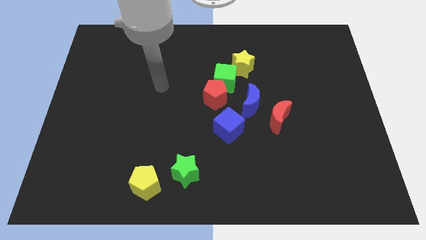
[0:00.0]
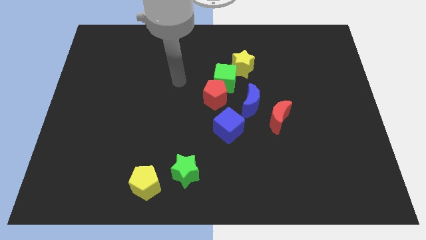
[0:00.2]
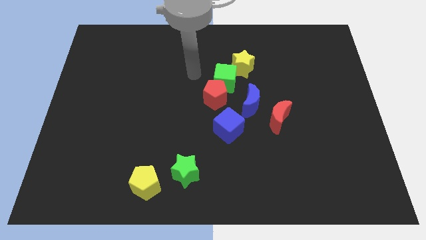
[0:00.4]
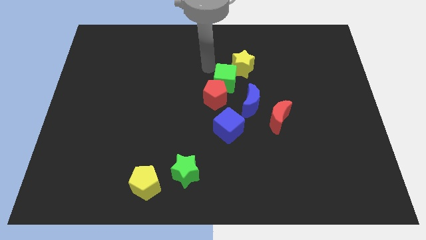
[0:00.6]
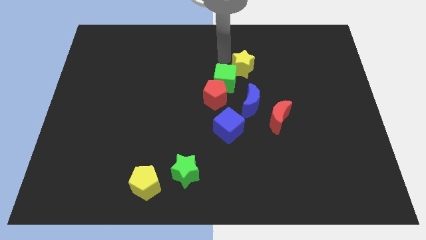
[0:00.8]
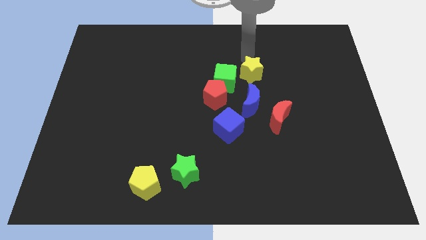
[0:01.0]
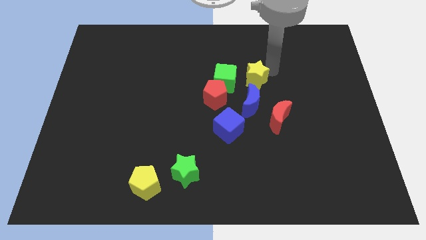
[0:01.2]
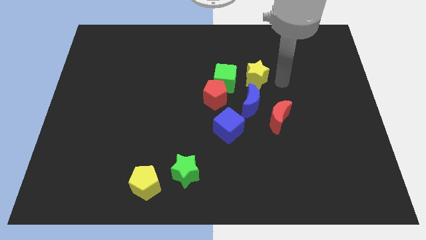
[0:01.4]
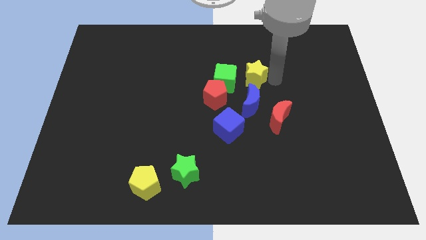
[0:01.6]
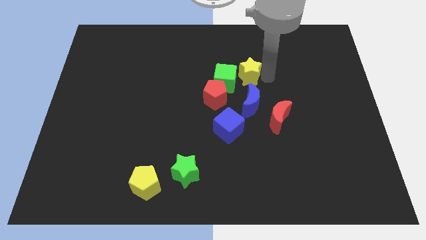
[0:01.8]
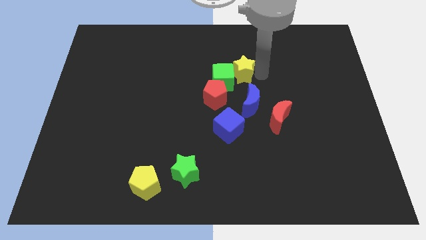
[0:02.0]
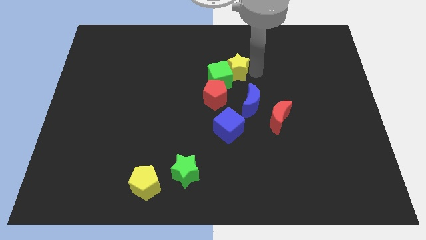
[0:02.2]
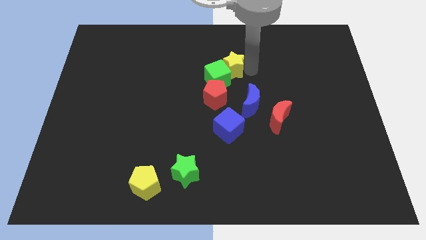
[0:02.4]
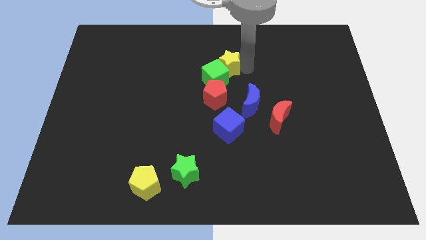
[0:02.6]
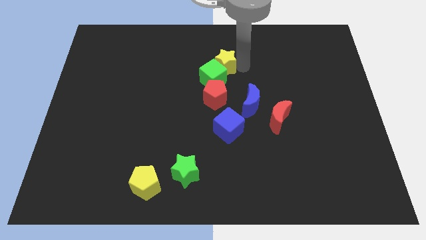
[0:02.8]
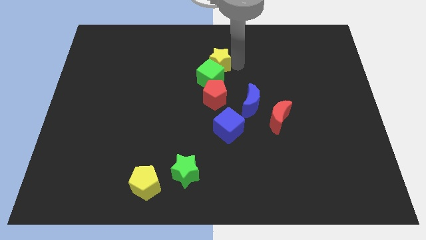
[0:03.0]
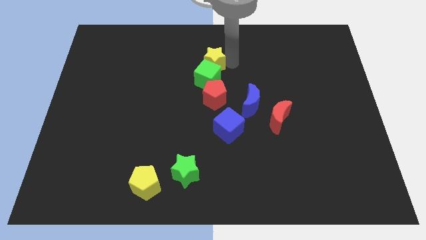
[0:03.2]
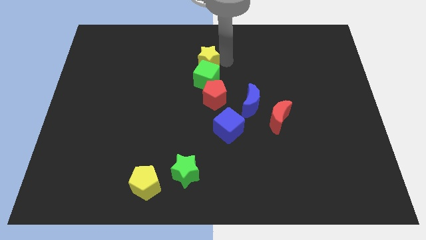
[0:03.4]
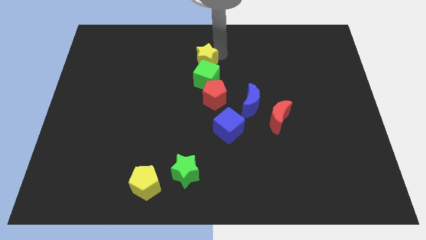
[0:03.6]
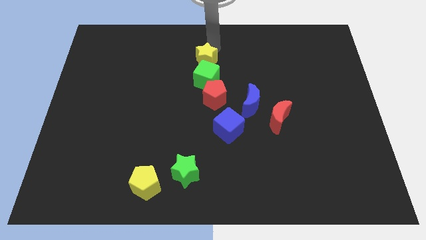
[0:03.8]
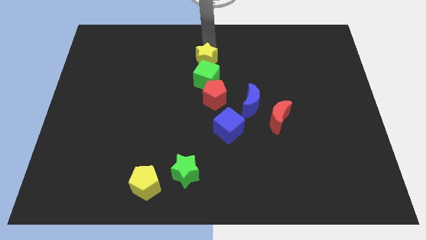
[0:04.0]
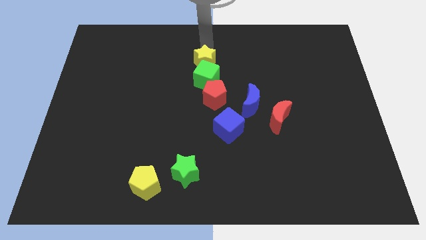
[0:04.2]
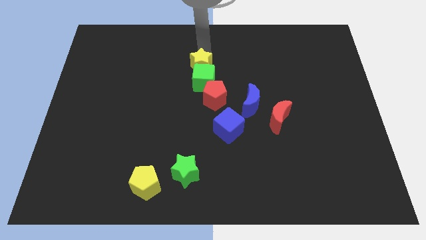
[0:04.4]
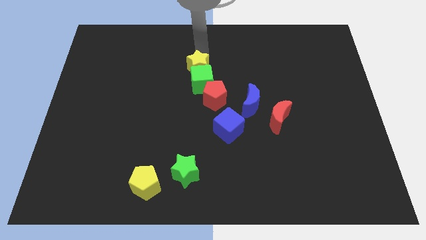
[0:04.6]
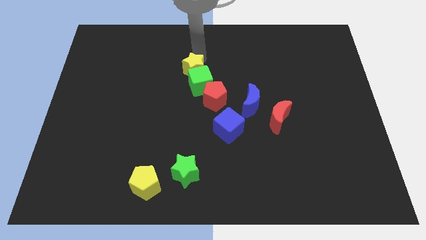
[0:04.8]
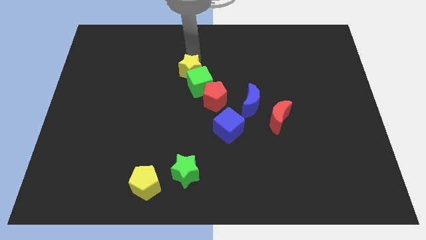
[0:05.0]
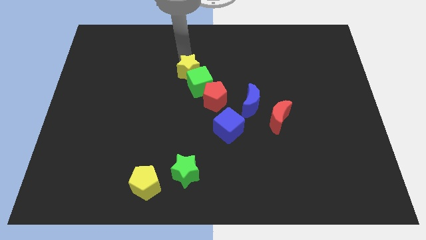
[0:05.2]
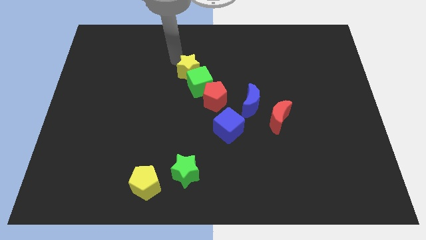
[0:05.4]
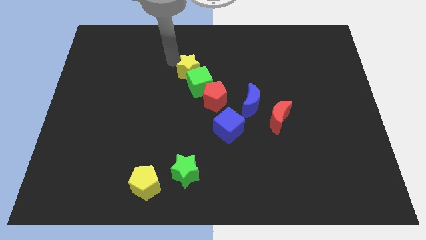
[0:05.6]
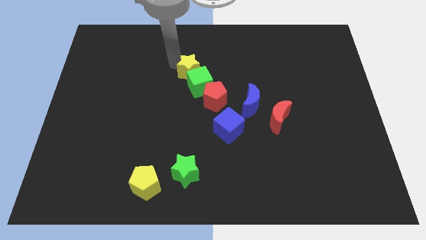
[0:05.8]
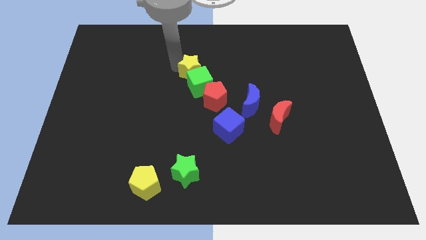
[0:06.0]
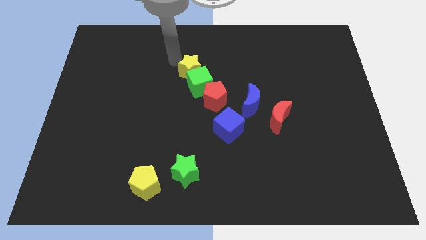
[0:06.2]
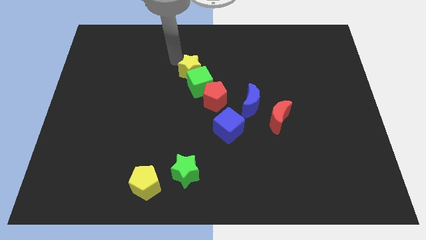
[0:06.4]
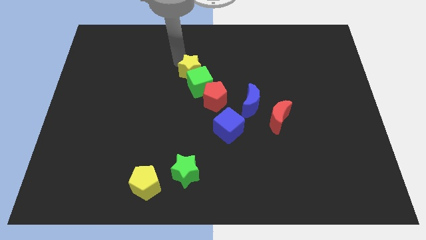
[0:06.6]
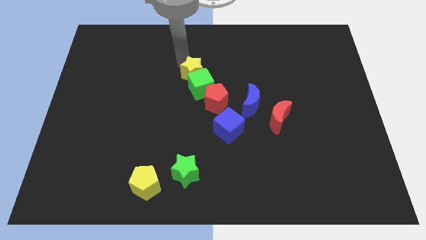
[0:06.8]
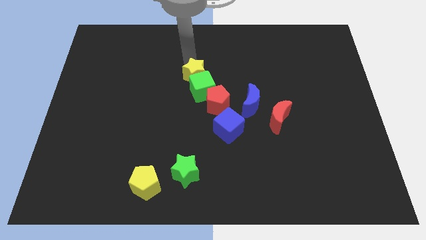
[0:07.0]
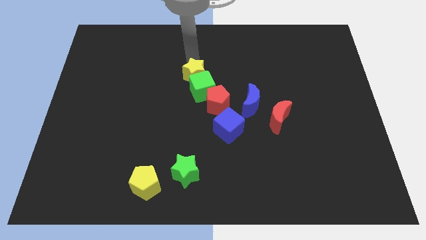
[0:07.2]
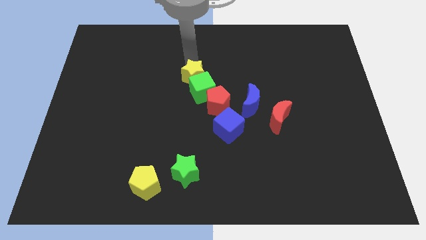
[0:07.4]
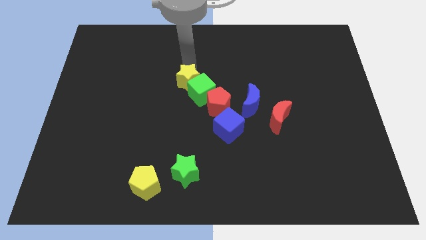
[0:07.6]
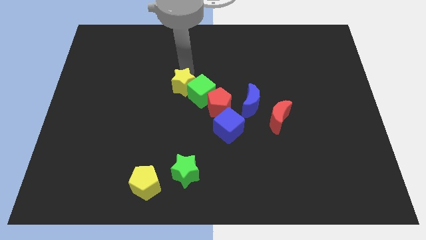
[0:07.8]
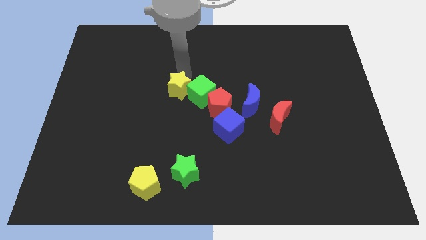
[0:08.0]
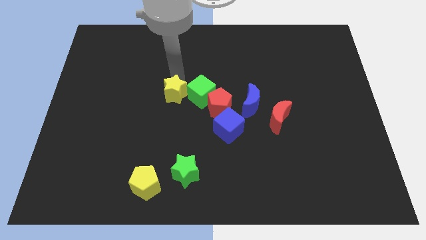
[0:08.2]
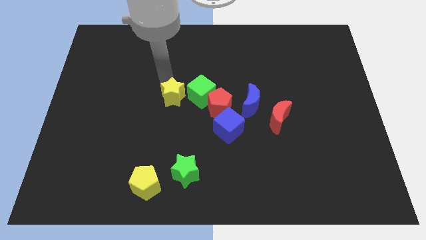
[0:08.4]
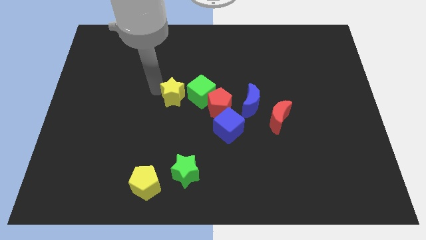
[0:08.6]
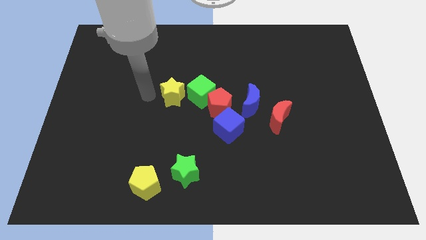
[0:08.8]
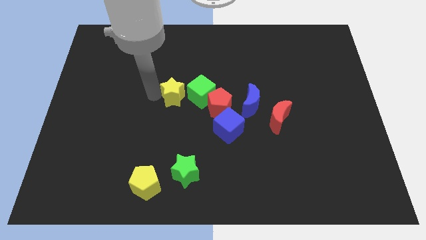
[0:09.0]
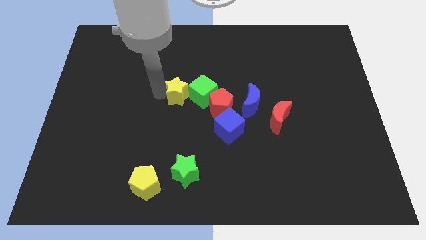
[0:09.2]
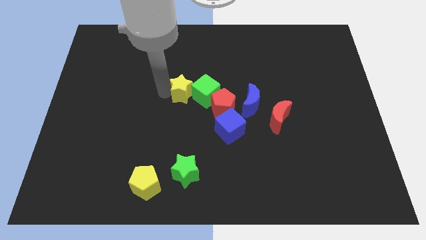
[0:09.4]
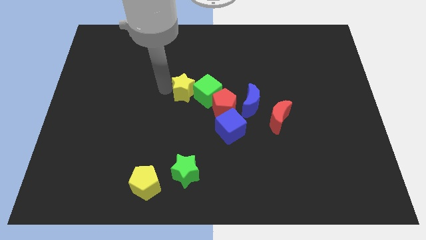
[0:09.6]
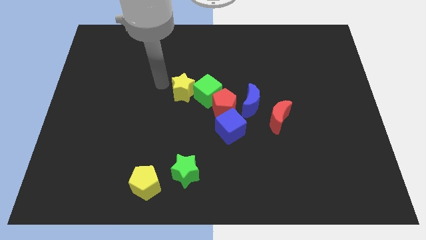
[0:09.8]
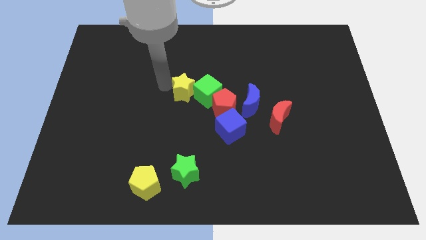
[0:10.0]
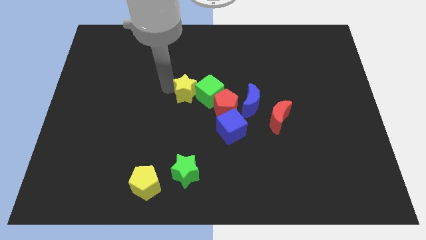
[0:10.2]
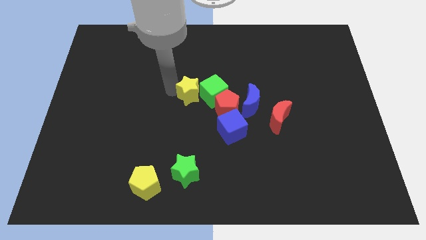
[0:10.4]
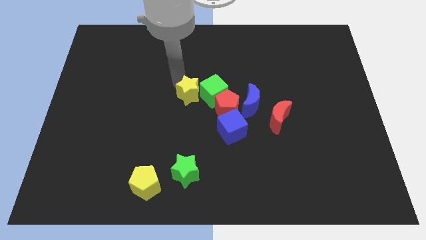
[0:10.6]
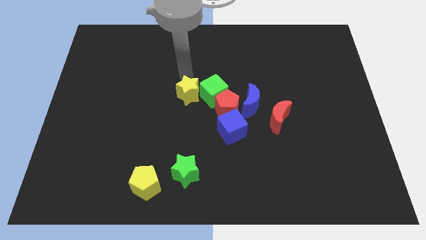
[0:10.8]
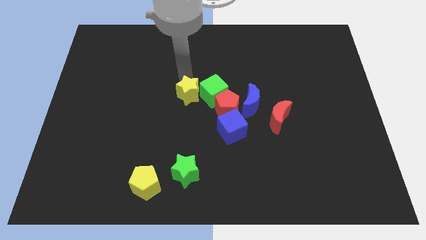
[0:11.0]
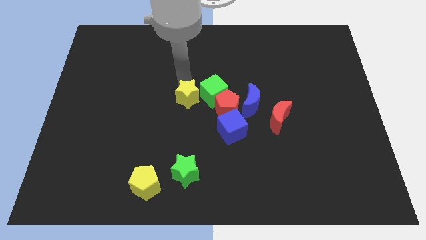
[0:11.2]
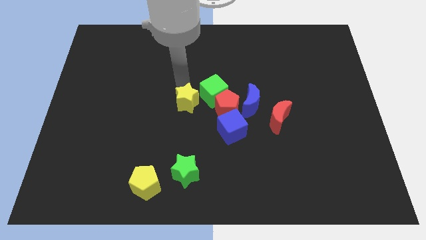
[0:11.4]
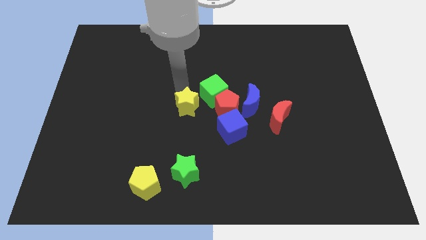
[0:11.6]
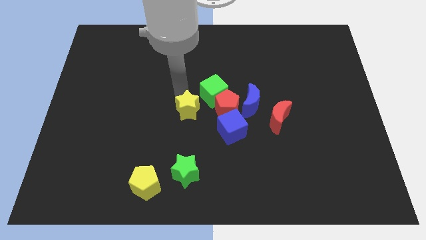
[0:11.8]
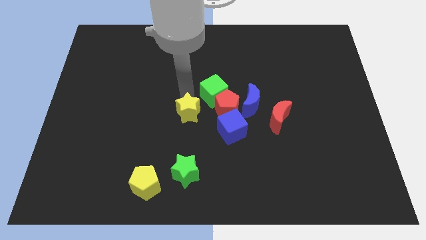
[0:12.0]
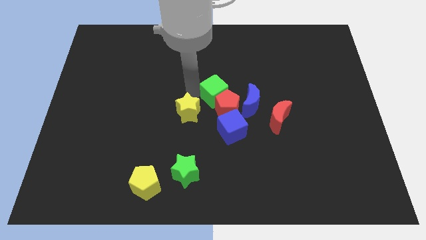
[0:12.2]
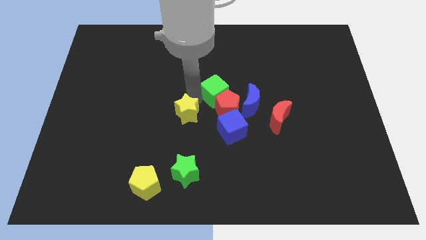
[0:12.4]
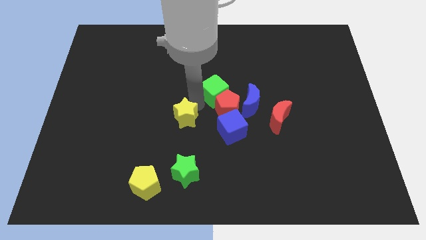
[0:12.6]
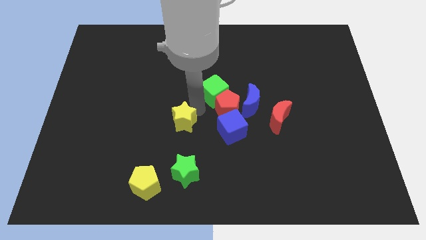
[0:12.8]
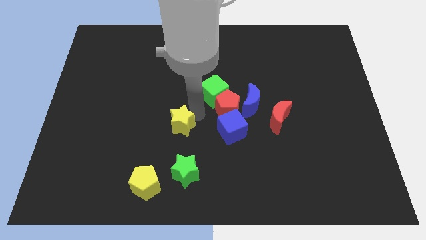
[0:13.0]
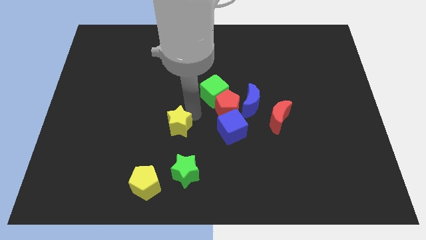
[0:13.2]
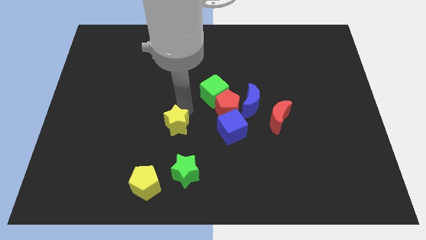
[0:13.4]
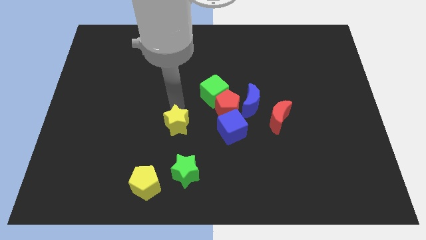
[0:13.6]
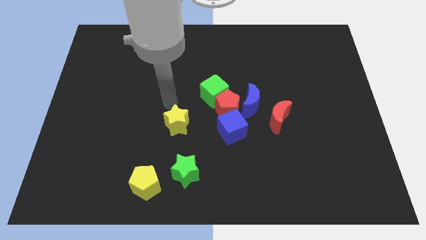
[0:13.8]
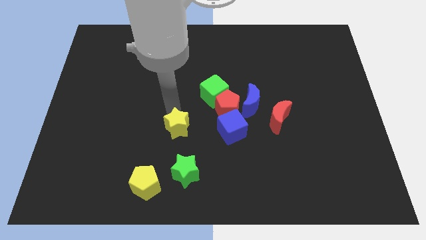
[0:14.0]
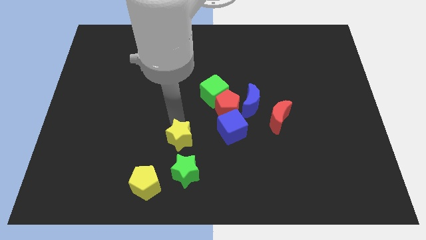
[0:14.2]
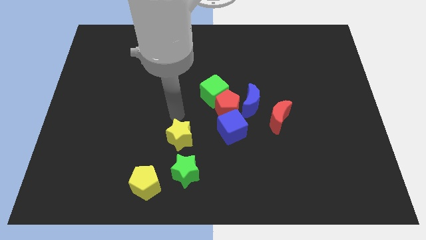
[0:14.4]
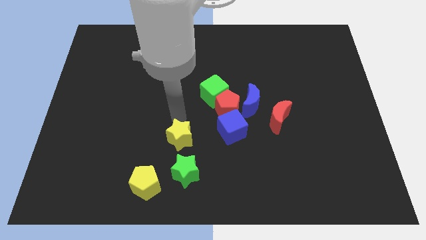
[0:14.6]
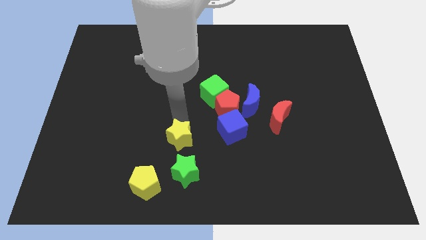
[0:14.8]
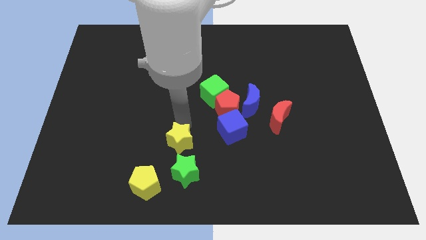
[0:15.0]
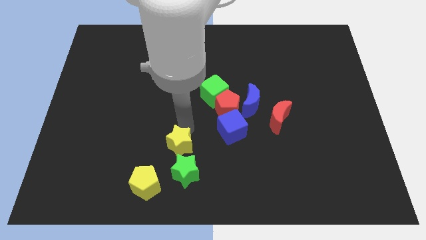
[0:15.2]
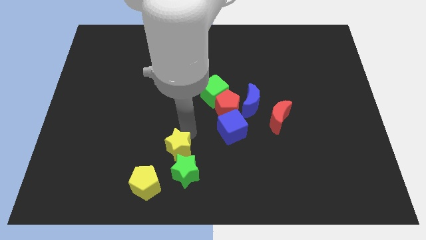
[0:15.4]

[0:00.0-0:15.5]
move the yellow star close to the green star
